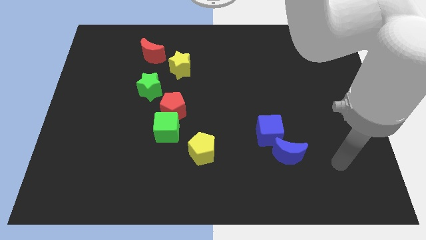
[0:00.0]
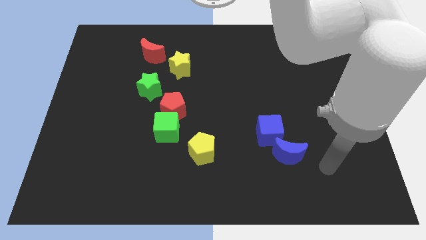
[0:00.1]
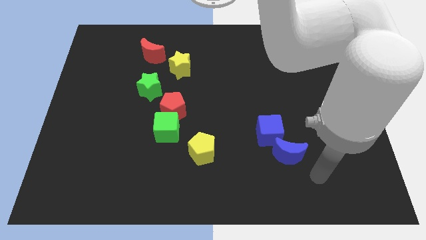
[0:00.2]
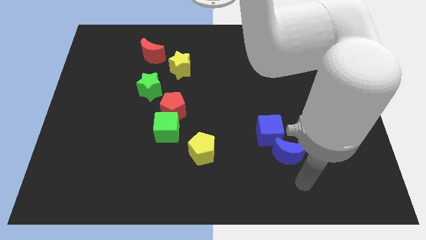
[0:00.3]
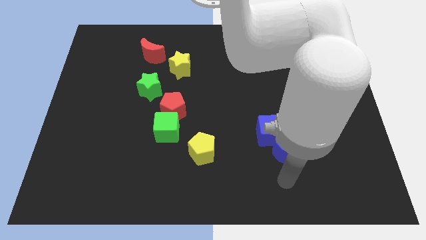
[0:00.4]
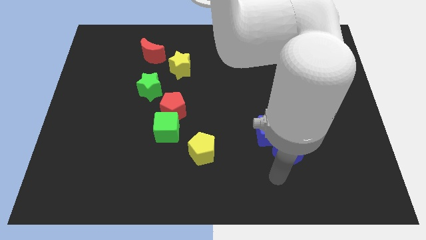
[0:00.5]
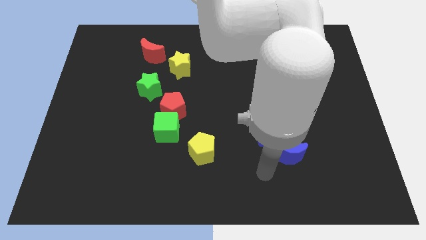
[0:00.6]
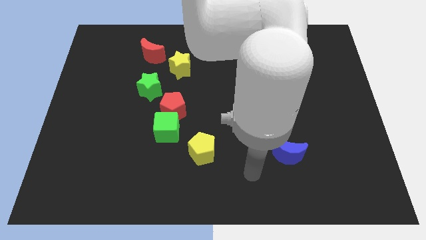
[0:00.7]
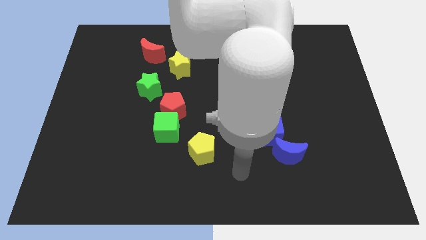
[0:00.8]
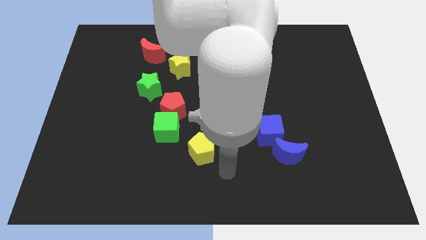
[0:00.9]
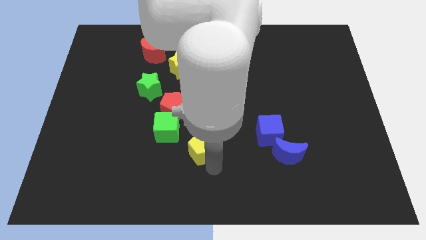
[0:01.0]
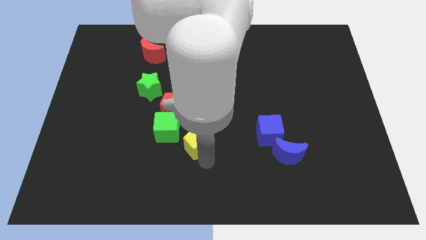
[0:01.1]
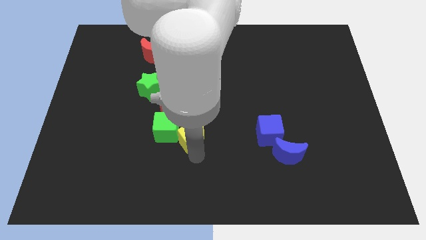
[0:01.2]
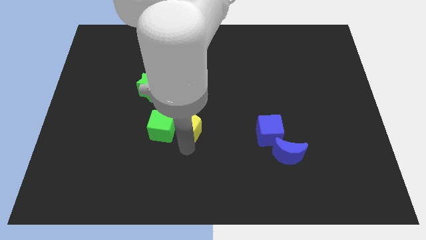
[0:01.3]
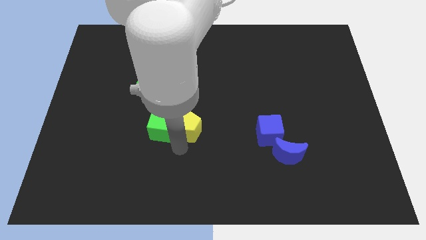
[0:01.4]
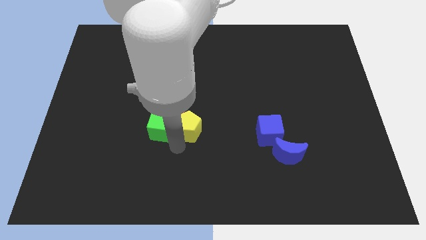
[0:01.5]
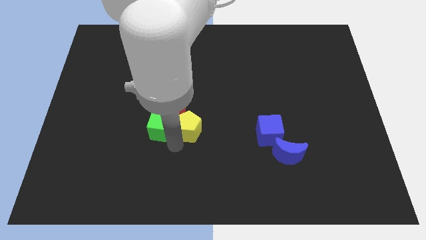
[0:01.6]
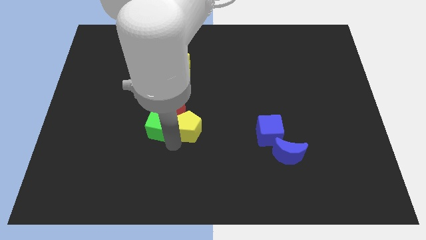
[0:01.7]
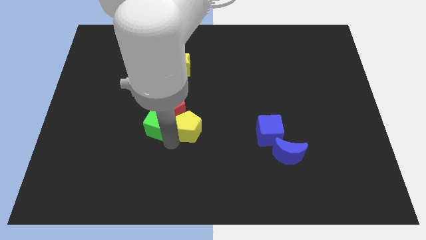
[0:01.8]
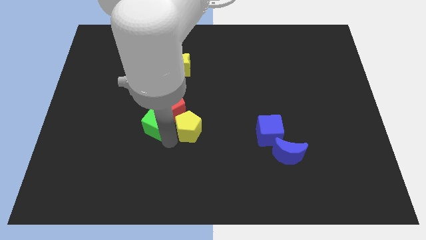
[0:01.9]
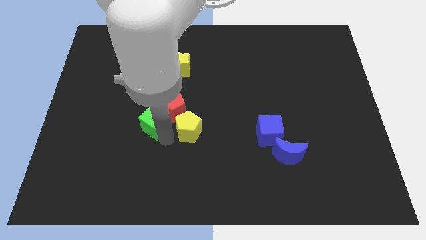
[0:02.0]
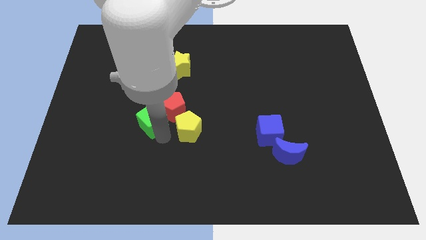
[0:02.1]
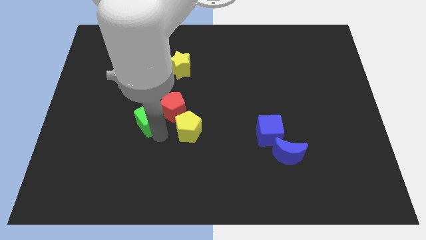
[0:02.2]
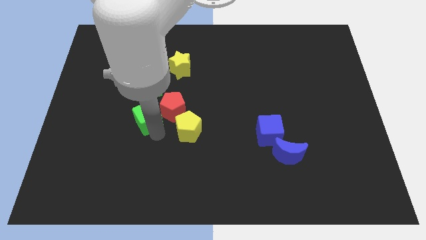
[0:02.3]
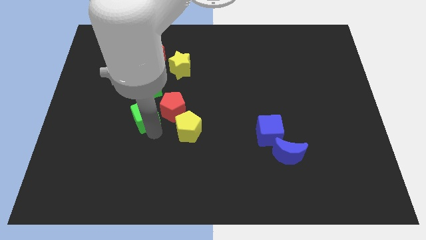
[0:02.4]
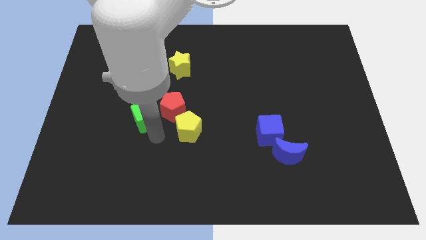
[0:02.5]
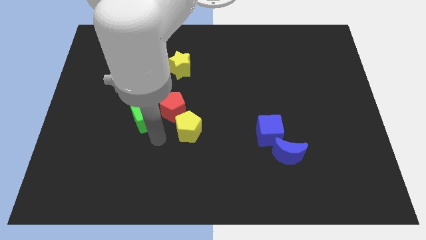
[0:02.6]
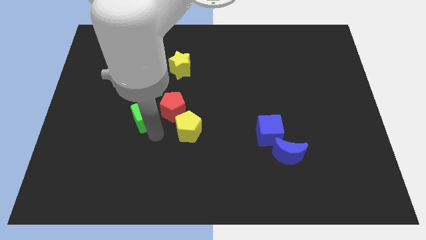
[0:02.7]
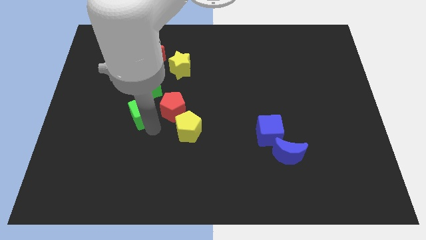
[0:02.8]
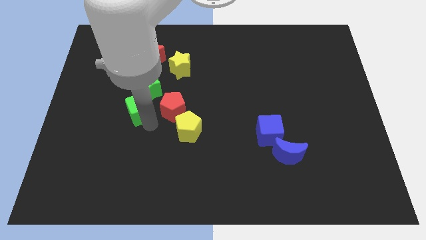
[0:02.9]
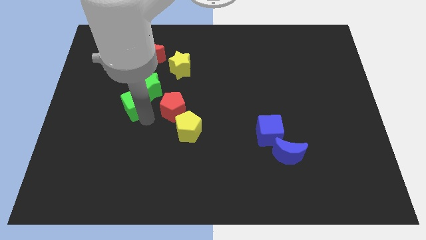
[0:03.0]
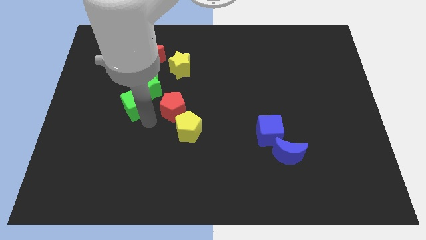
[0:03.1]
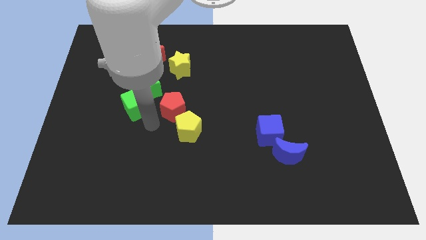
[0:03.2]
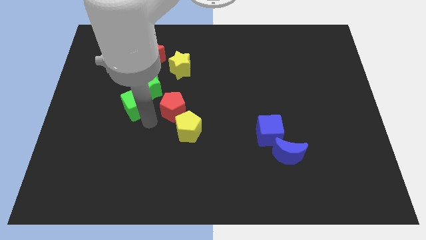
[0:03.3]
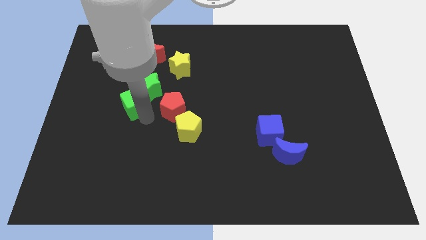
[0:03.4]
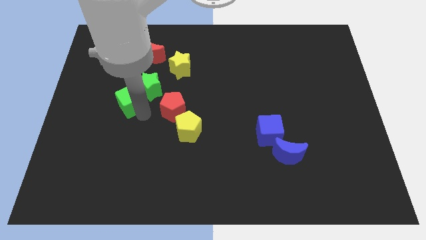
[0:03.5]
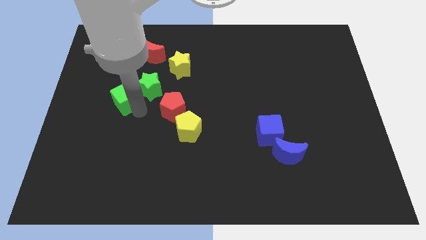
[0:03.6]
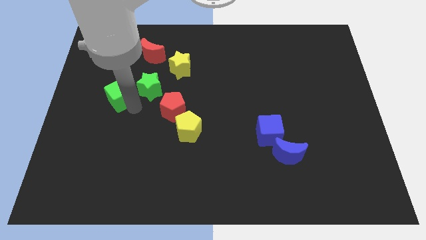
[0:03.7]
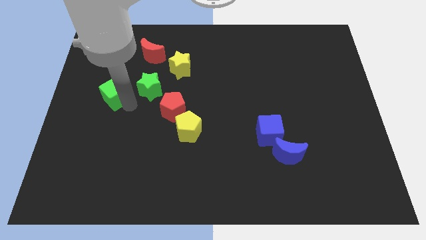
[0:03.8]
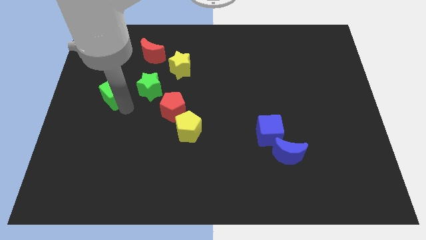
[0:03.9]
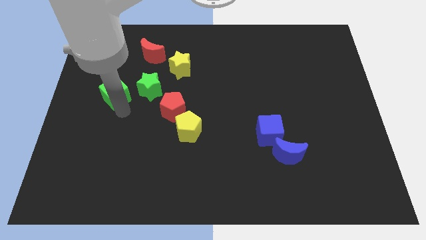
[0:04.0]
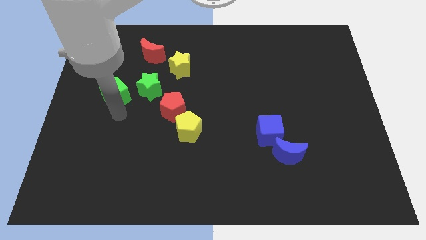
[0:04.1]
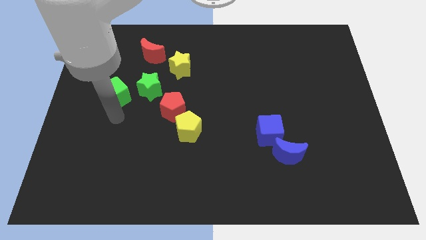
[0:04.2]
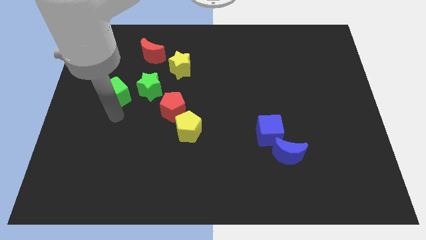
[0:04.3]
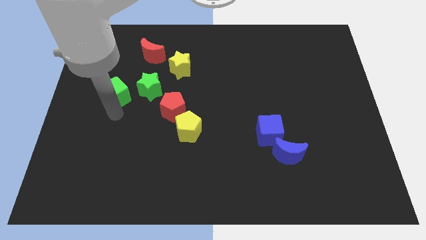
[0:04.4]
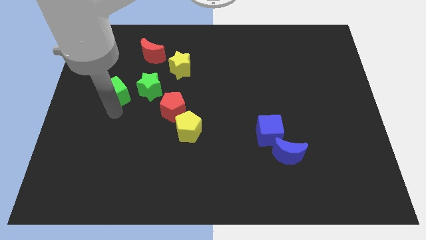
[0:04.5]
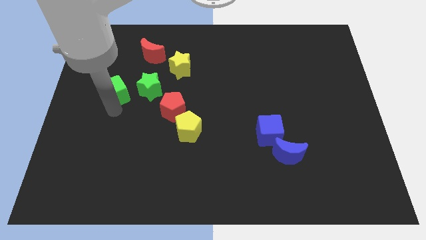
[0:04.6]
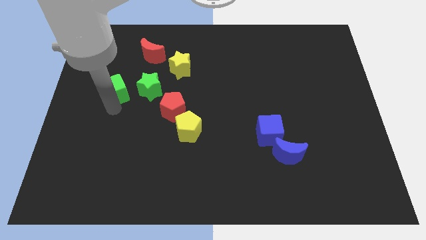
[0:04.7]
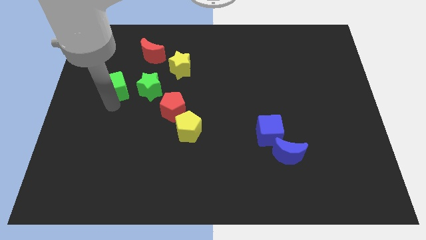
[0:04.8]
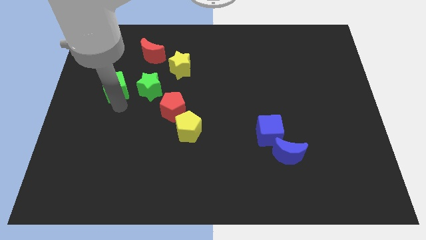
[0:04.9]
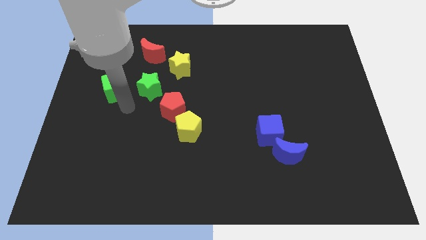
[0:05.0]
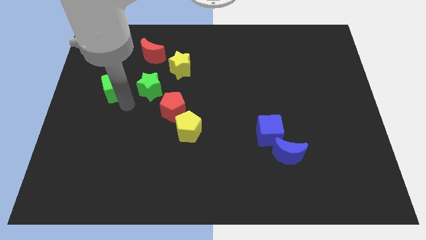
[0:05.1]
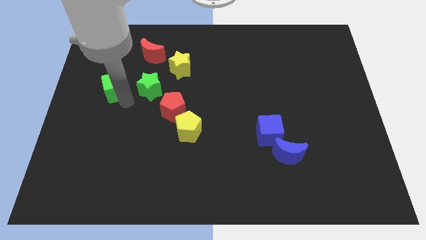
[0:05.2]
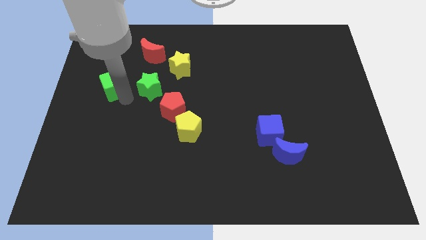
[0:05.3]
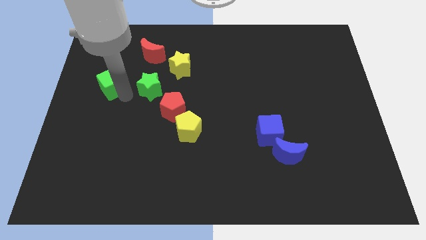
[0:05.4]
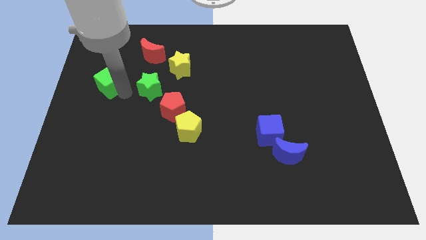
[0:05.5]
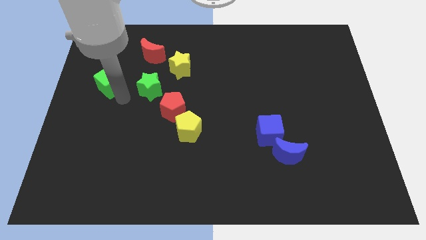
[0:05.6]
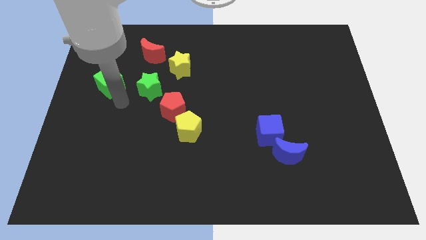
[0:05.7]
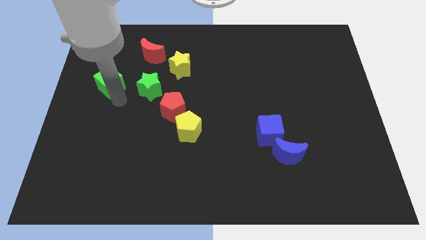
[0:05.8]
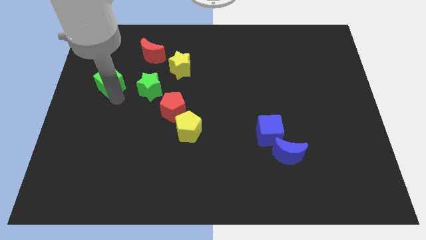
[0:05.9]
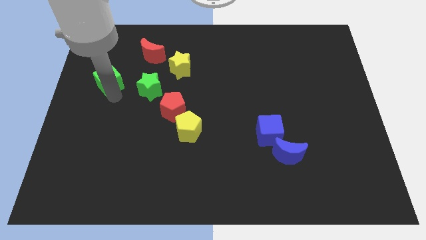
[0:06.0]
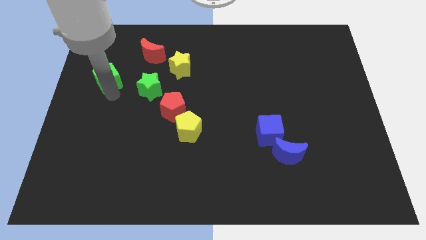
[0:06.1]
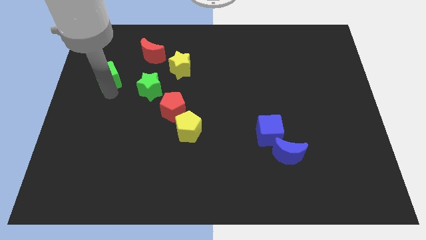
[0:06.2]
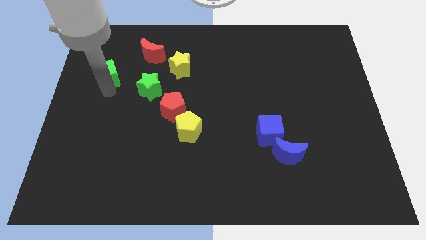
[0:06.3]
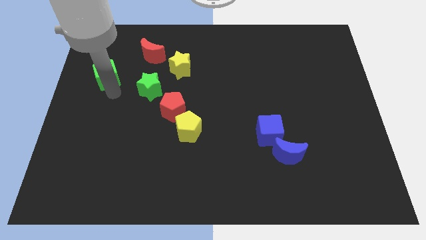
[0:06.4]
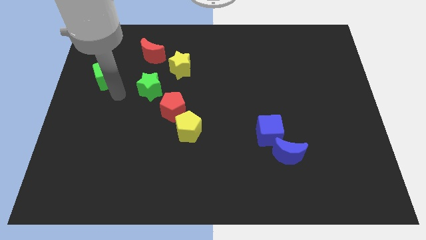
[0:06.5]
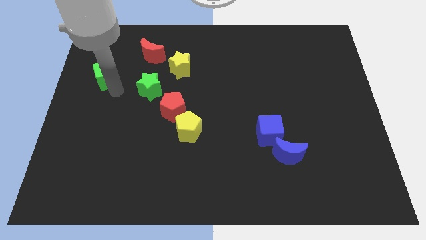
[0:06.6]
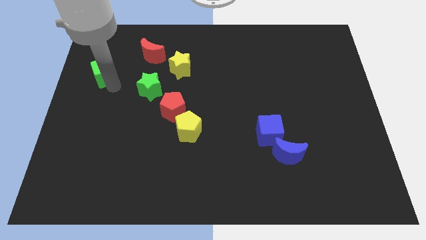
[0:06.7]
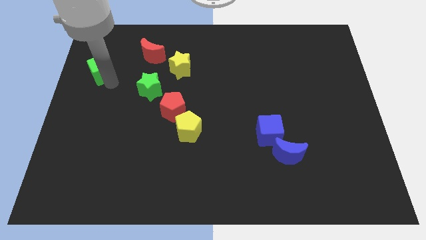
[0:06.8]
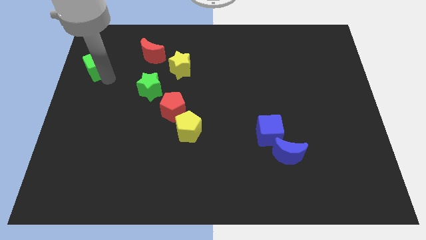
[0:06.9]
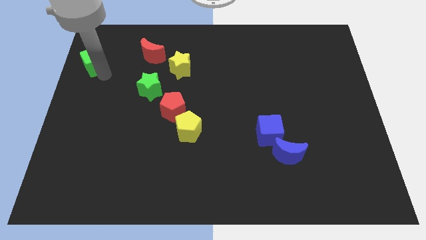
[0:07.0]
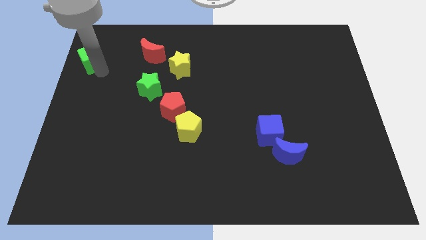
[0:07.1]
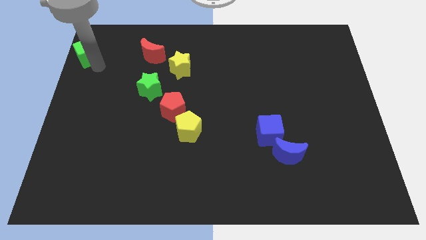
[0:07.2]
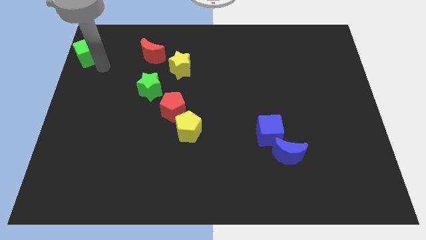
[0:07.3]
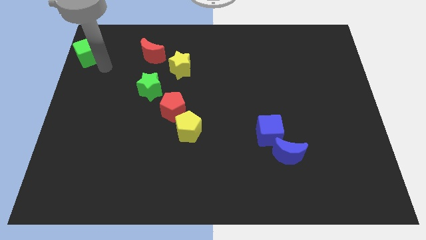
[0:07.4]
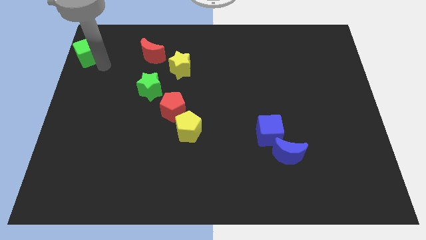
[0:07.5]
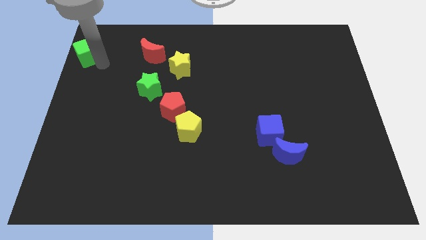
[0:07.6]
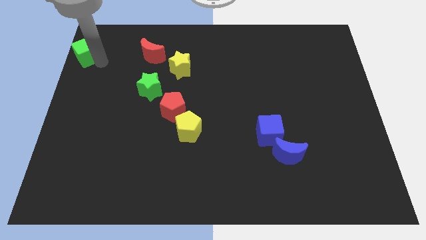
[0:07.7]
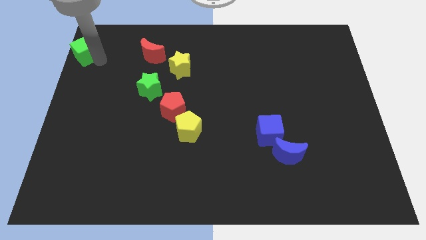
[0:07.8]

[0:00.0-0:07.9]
move the green cube to the top left of the board
